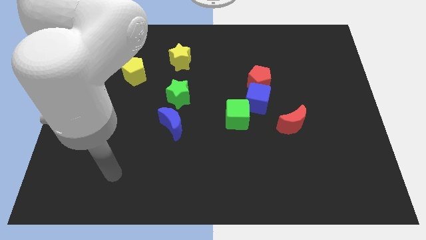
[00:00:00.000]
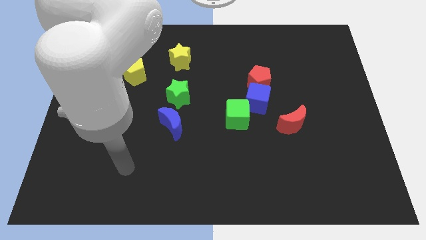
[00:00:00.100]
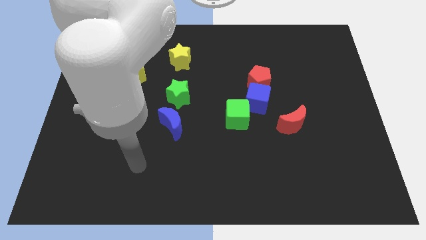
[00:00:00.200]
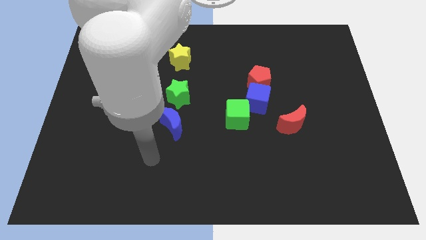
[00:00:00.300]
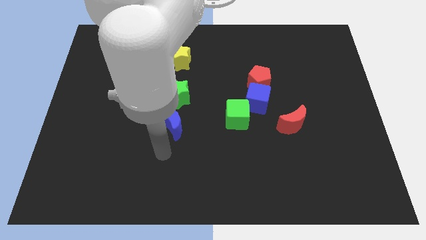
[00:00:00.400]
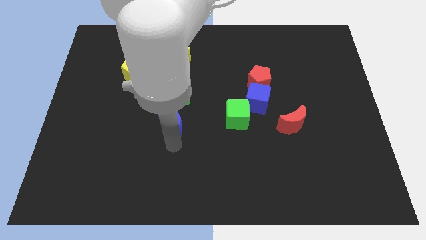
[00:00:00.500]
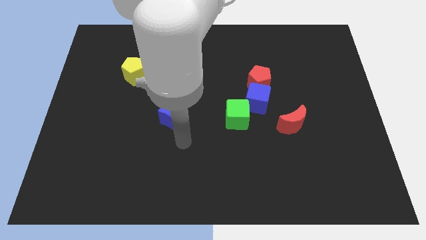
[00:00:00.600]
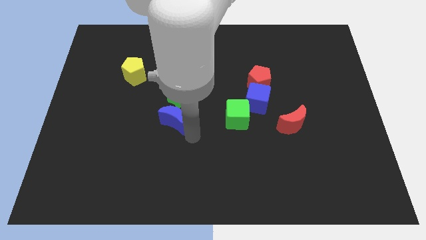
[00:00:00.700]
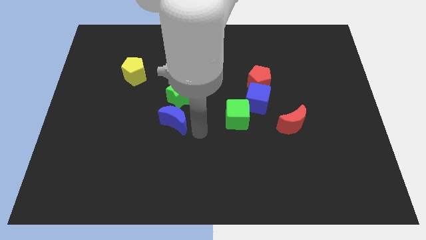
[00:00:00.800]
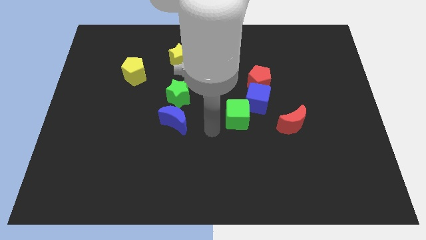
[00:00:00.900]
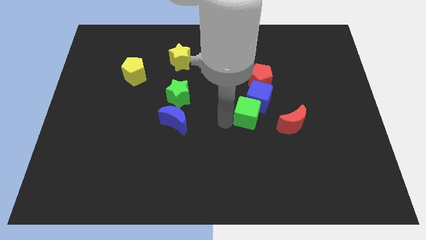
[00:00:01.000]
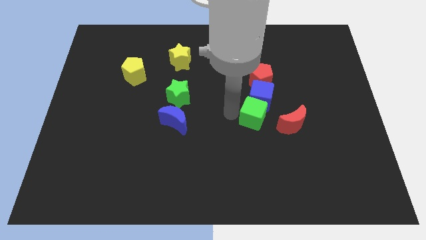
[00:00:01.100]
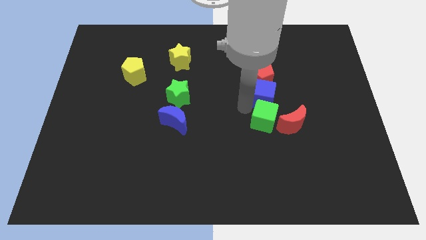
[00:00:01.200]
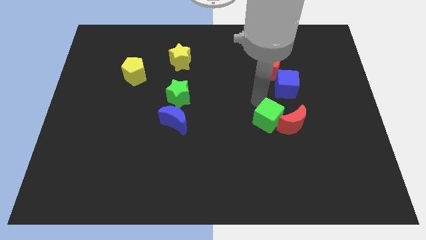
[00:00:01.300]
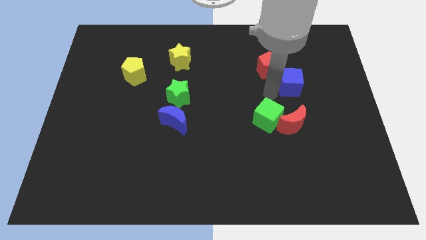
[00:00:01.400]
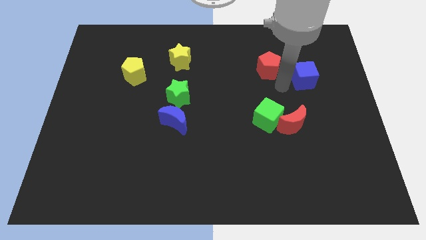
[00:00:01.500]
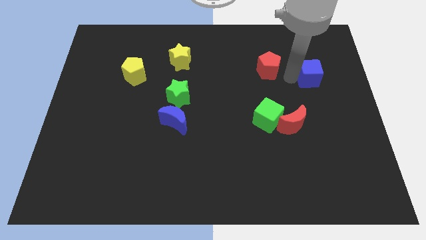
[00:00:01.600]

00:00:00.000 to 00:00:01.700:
separate the red pentagon from the blue cube

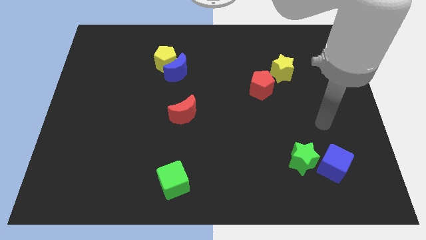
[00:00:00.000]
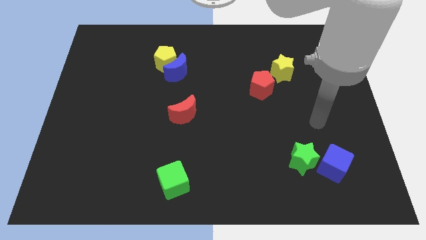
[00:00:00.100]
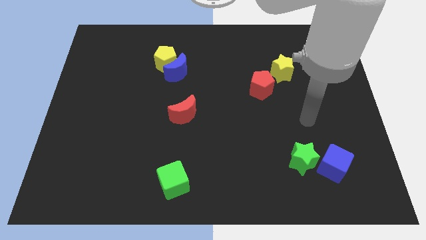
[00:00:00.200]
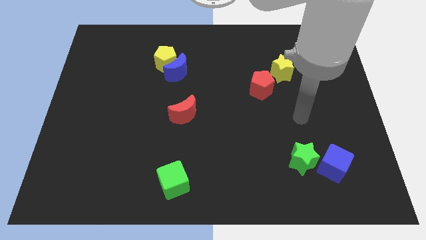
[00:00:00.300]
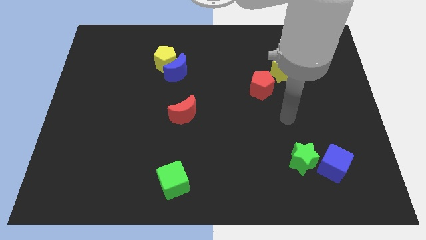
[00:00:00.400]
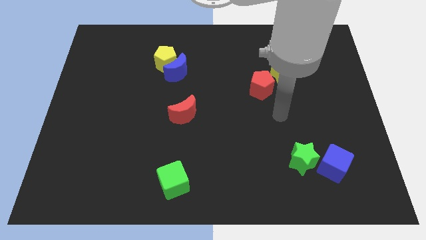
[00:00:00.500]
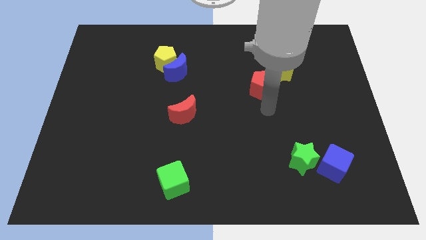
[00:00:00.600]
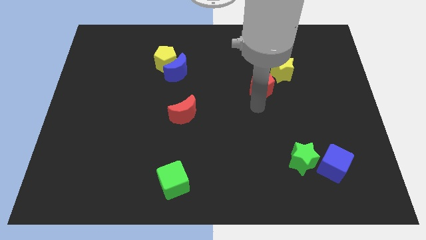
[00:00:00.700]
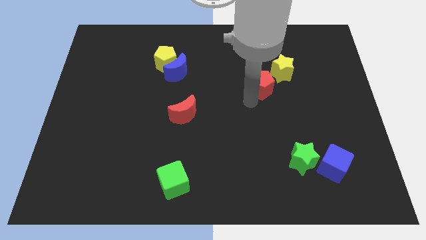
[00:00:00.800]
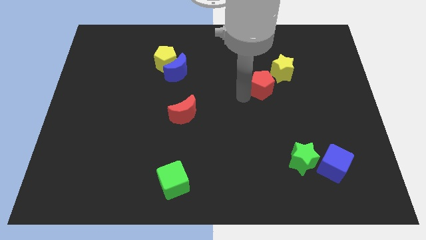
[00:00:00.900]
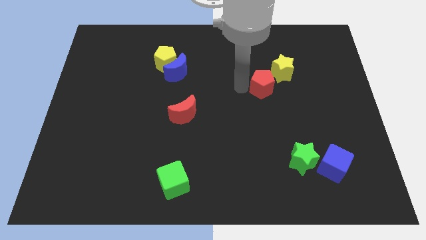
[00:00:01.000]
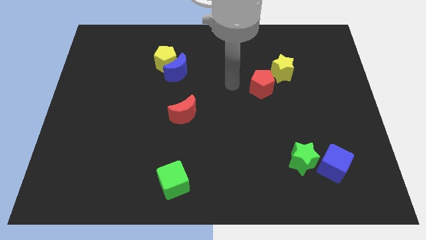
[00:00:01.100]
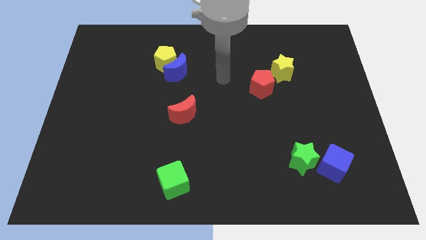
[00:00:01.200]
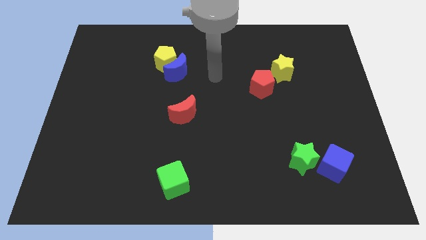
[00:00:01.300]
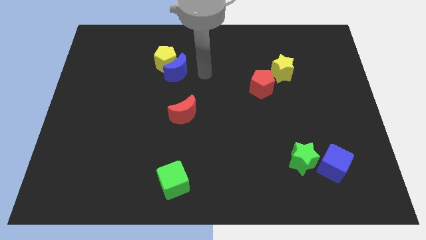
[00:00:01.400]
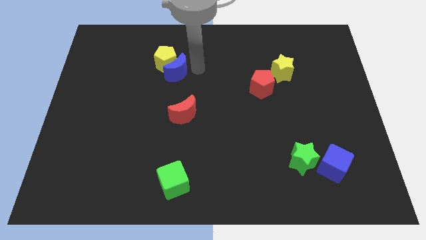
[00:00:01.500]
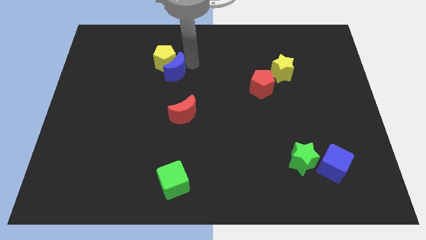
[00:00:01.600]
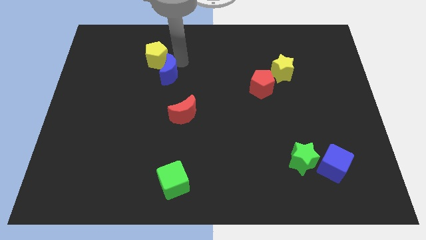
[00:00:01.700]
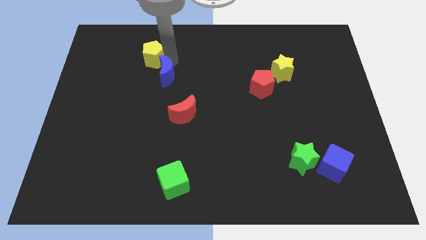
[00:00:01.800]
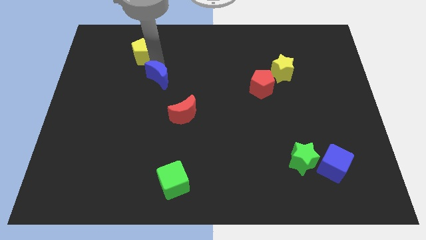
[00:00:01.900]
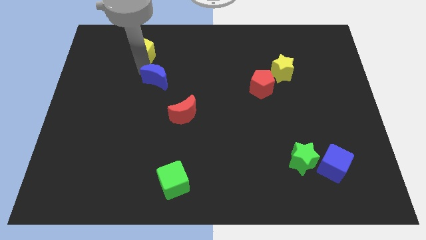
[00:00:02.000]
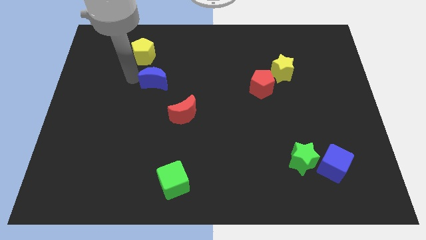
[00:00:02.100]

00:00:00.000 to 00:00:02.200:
move the blue moon away from the yellow pentagon

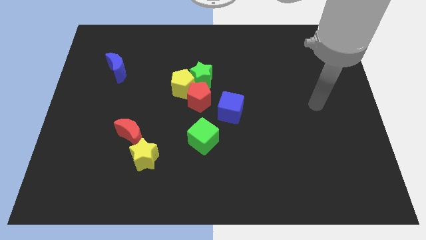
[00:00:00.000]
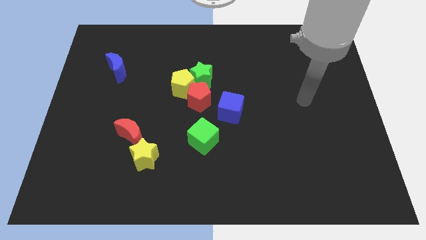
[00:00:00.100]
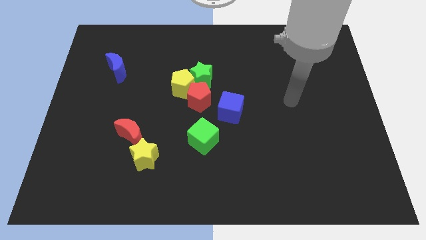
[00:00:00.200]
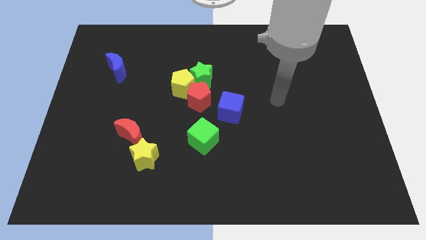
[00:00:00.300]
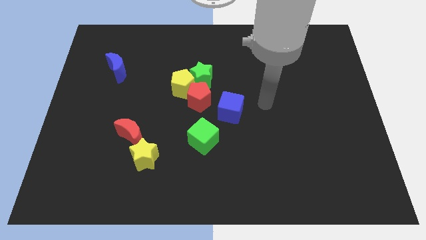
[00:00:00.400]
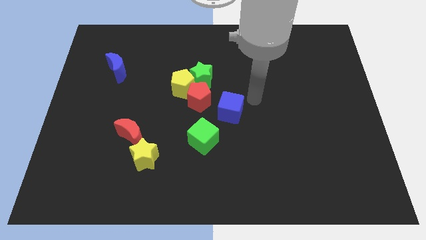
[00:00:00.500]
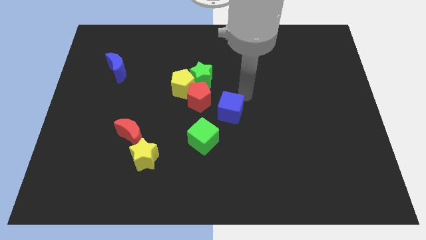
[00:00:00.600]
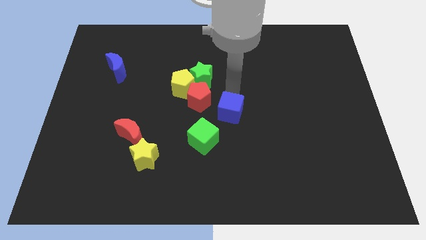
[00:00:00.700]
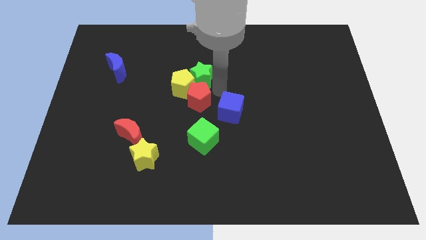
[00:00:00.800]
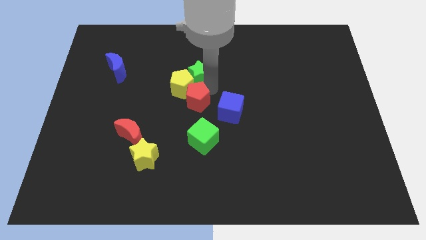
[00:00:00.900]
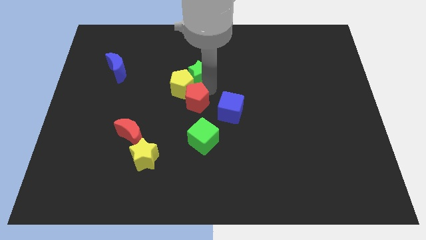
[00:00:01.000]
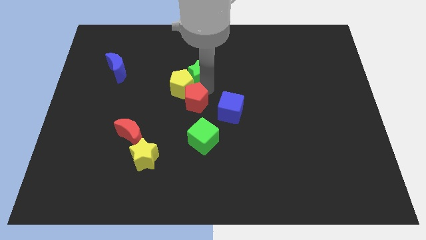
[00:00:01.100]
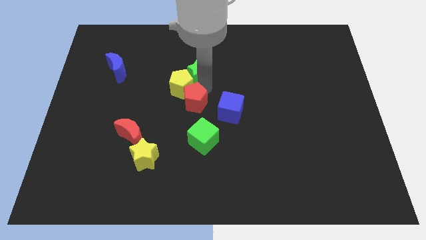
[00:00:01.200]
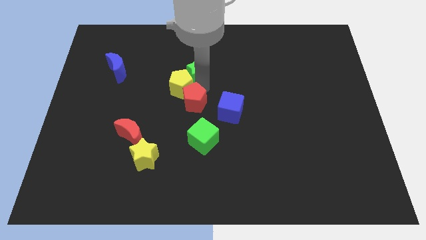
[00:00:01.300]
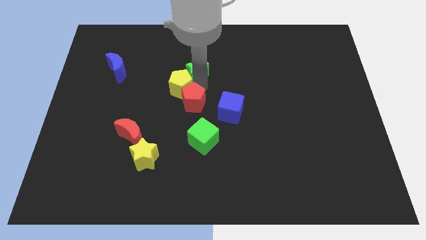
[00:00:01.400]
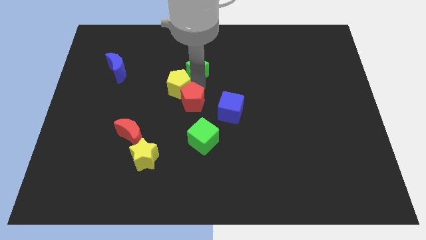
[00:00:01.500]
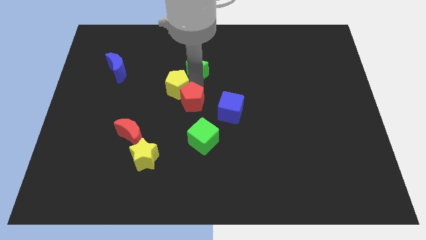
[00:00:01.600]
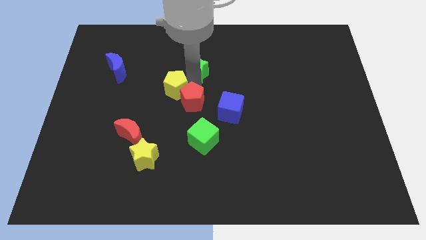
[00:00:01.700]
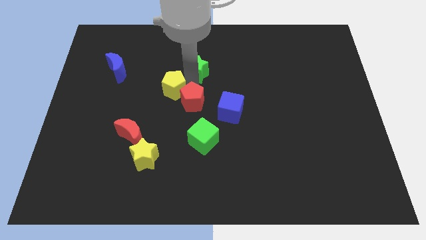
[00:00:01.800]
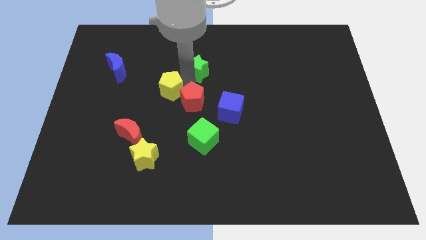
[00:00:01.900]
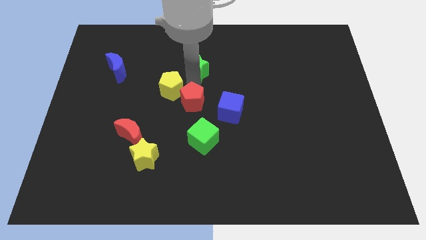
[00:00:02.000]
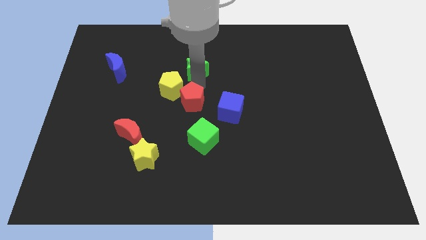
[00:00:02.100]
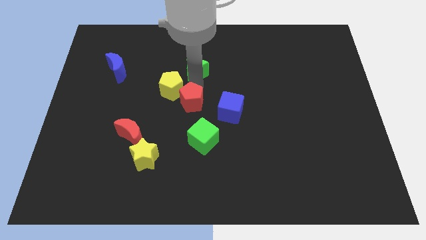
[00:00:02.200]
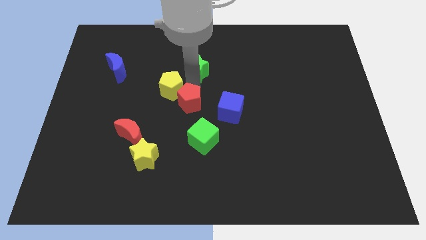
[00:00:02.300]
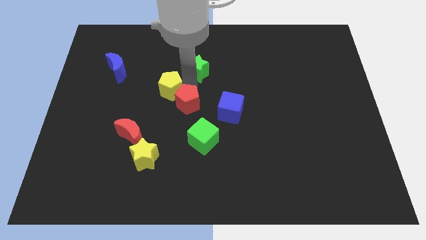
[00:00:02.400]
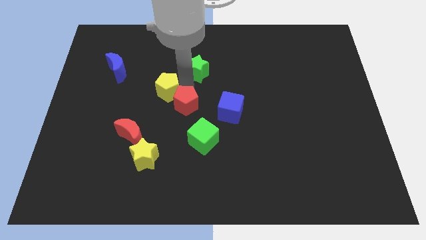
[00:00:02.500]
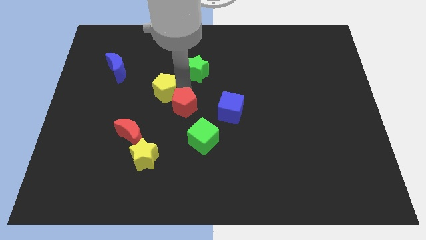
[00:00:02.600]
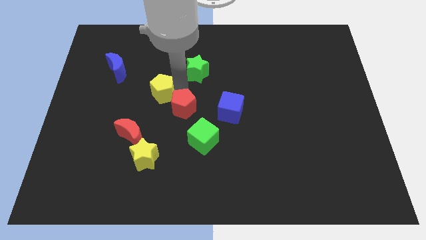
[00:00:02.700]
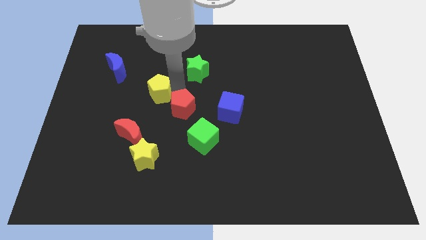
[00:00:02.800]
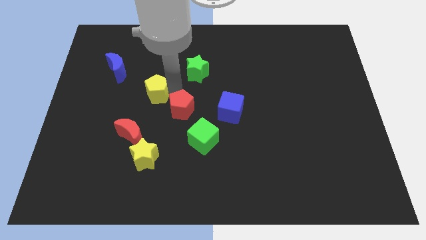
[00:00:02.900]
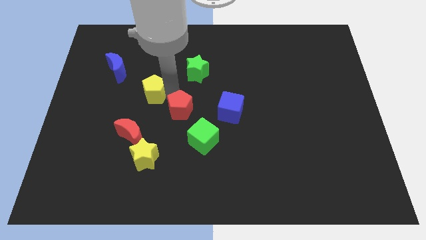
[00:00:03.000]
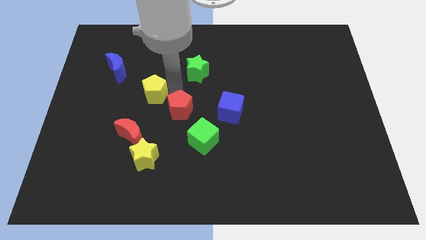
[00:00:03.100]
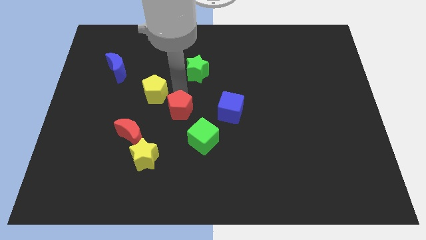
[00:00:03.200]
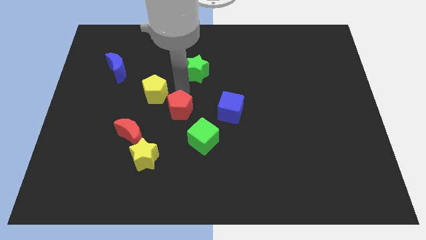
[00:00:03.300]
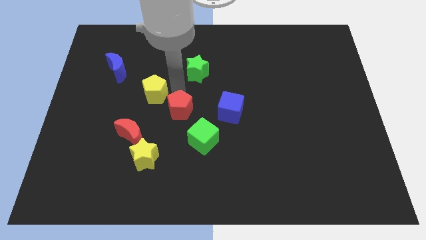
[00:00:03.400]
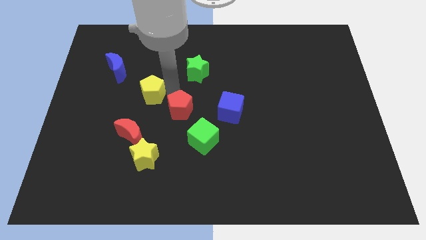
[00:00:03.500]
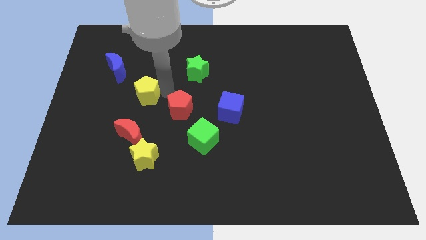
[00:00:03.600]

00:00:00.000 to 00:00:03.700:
separate the yellow pentagon from the green star and red pentagon

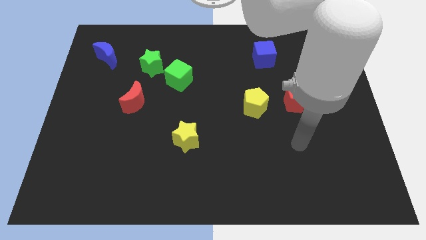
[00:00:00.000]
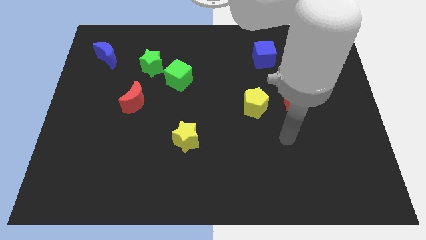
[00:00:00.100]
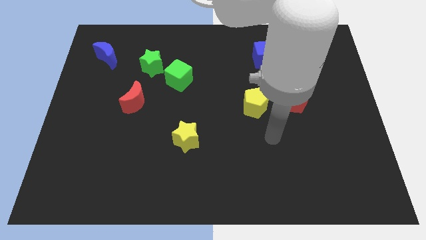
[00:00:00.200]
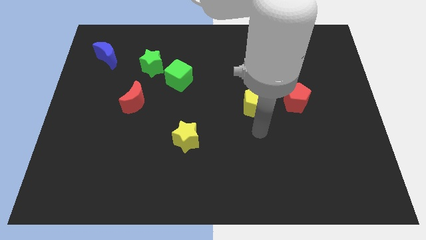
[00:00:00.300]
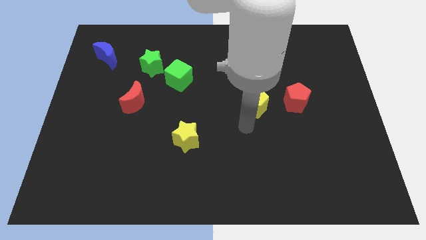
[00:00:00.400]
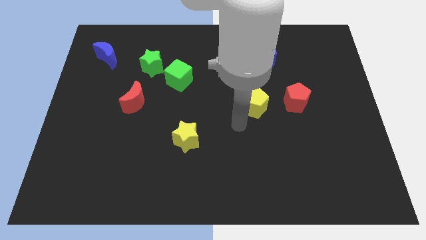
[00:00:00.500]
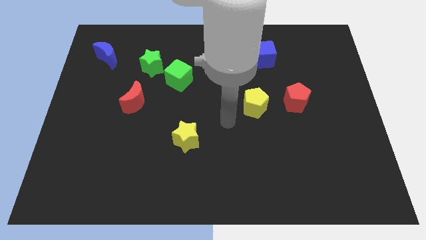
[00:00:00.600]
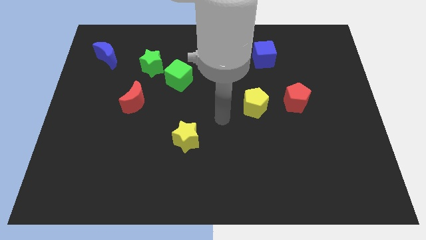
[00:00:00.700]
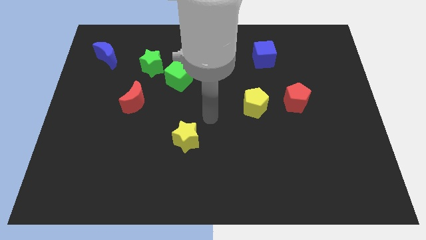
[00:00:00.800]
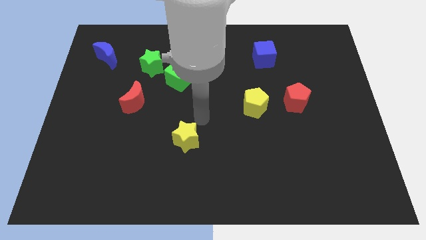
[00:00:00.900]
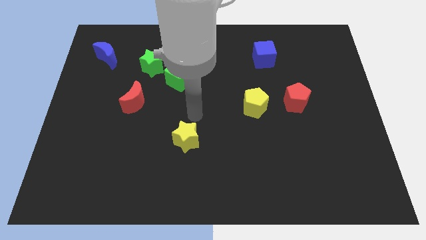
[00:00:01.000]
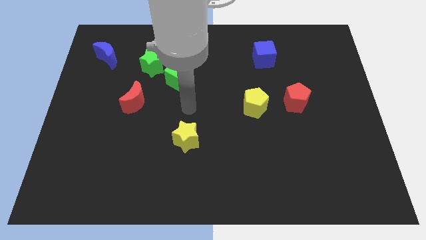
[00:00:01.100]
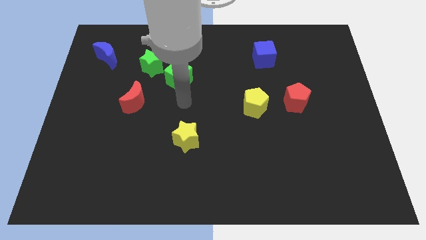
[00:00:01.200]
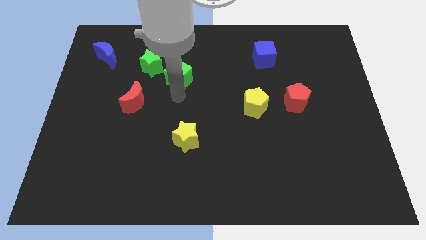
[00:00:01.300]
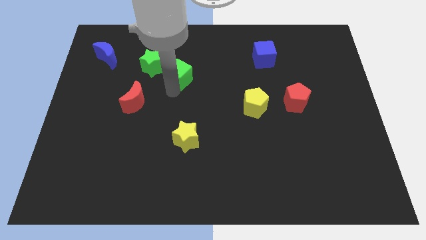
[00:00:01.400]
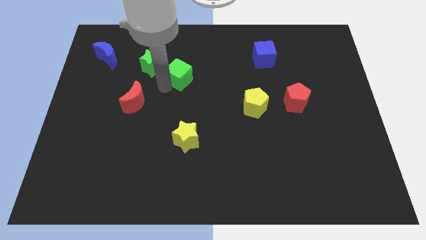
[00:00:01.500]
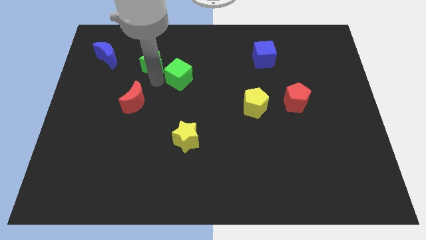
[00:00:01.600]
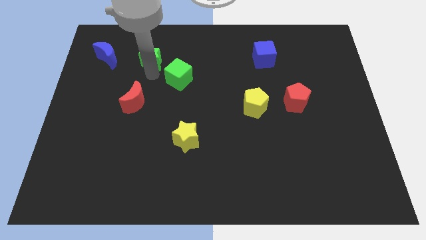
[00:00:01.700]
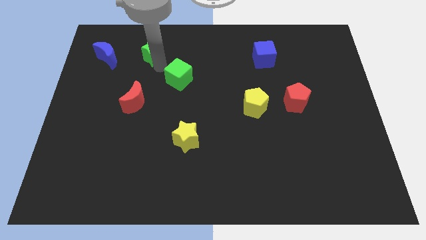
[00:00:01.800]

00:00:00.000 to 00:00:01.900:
pull the green cube apart from the green star
